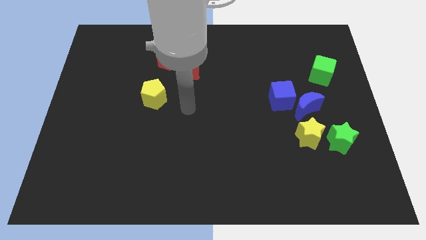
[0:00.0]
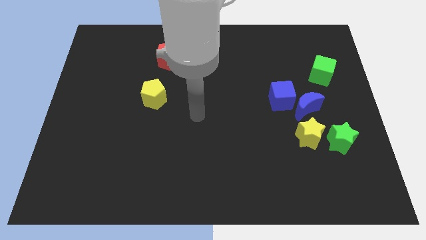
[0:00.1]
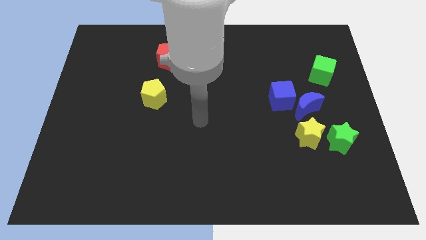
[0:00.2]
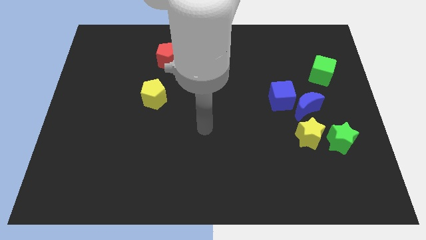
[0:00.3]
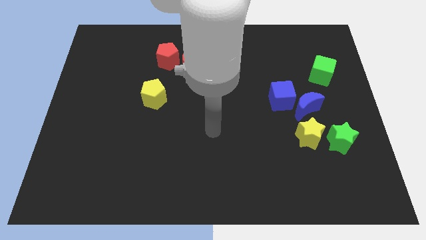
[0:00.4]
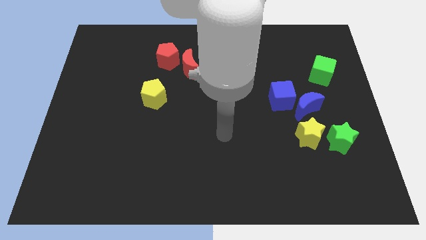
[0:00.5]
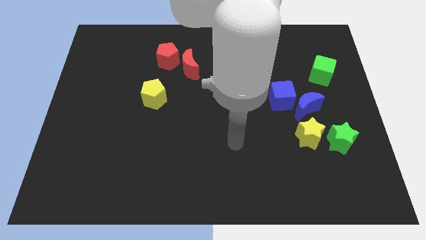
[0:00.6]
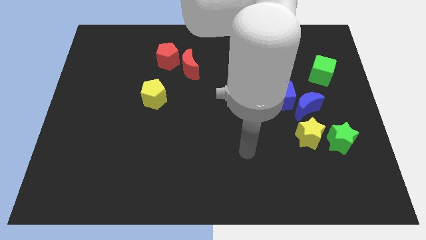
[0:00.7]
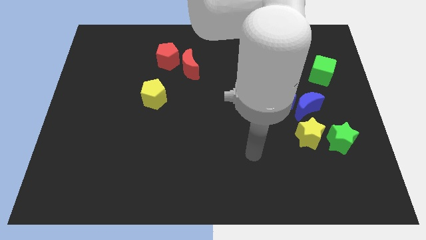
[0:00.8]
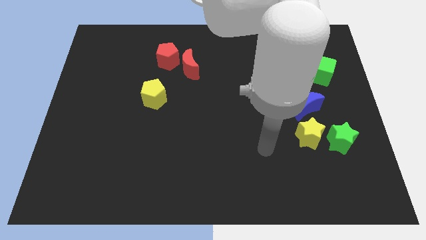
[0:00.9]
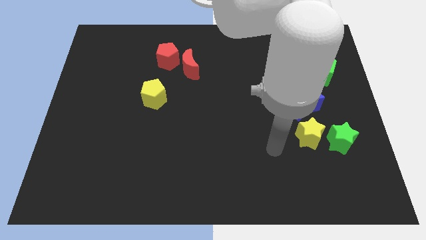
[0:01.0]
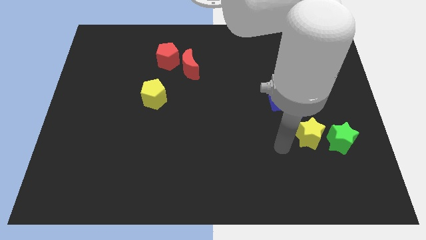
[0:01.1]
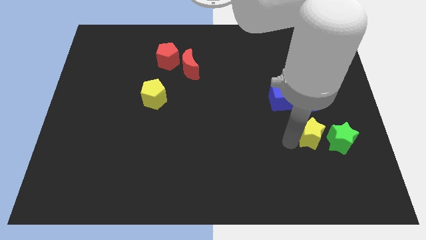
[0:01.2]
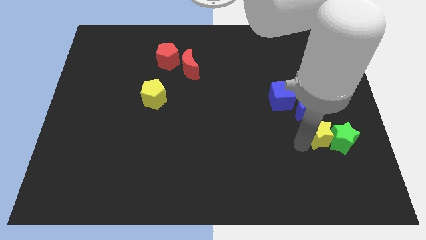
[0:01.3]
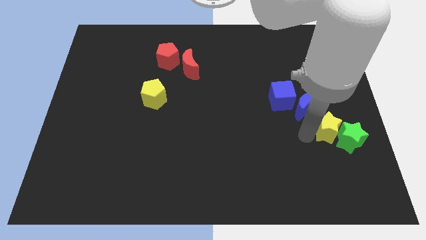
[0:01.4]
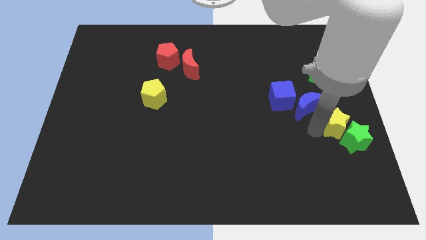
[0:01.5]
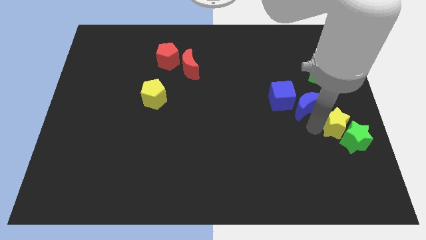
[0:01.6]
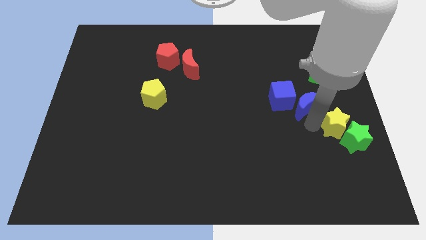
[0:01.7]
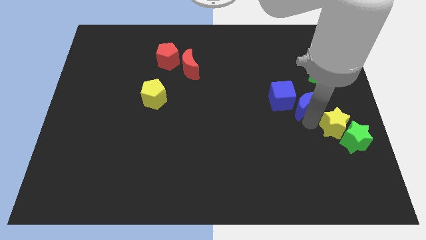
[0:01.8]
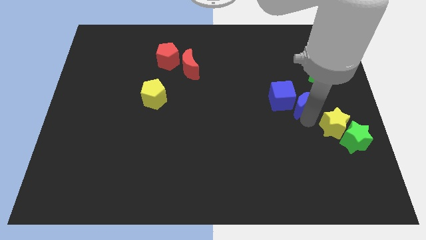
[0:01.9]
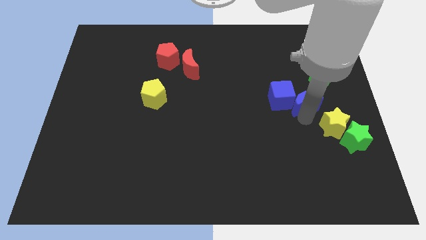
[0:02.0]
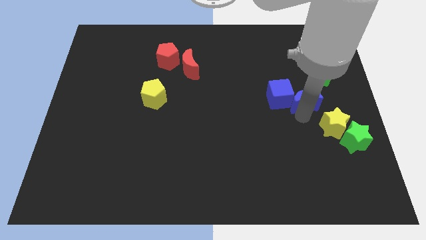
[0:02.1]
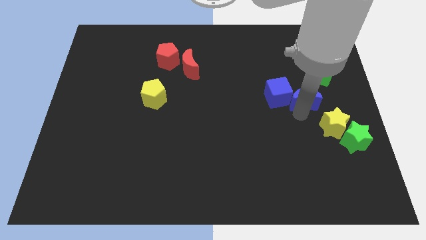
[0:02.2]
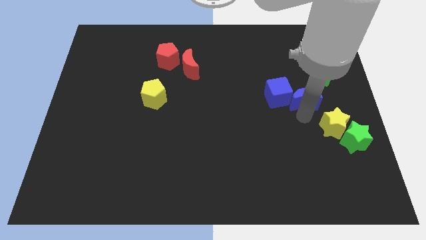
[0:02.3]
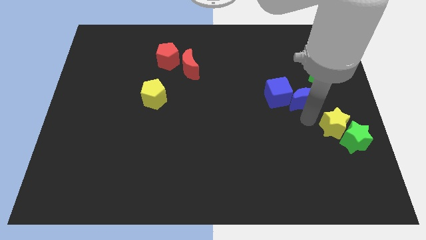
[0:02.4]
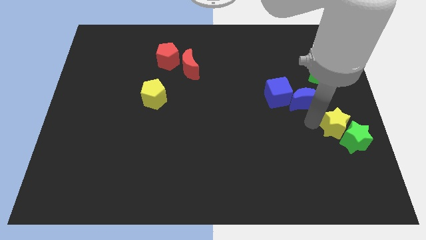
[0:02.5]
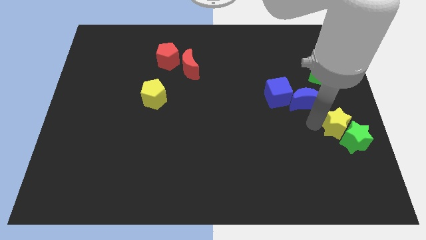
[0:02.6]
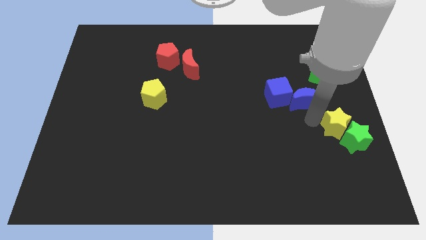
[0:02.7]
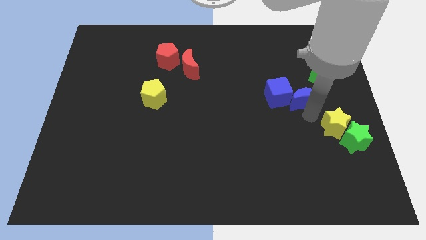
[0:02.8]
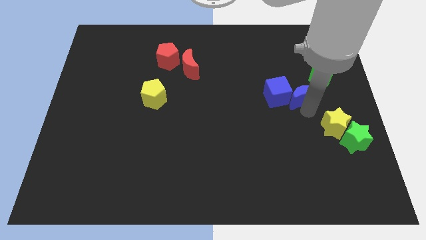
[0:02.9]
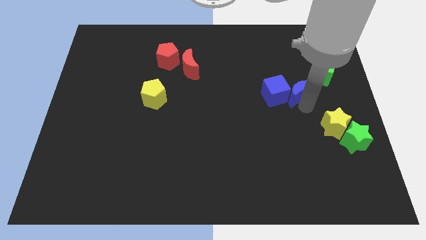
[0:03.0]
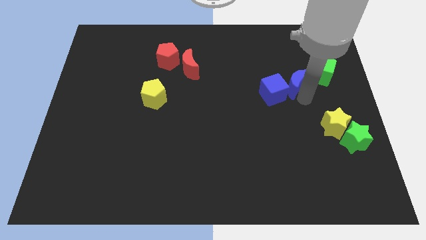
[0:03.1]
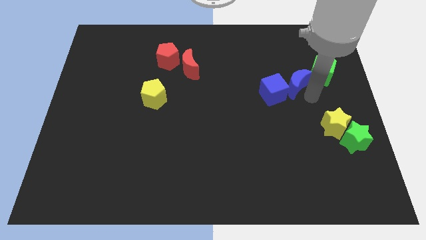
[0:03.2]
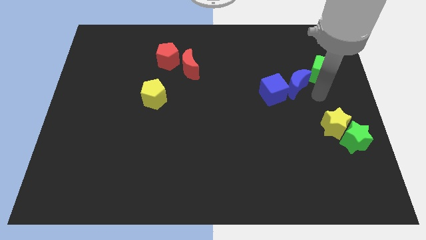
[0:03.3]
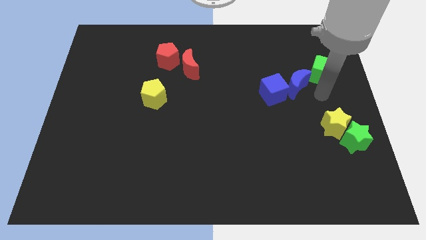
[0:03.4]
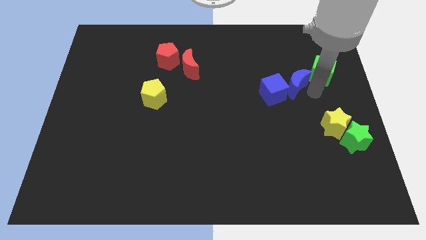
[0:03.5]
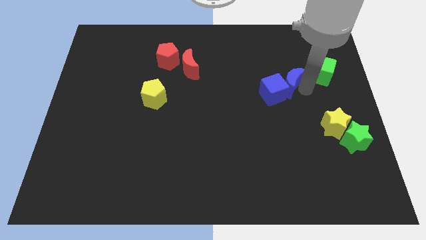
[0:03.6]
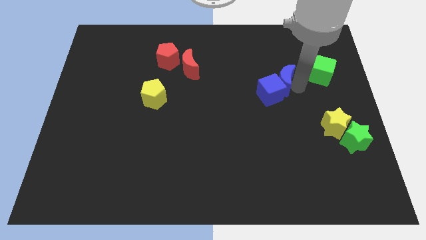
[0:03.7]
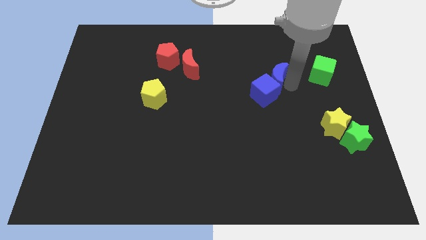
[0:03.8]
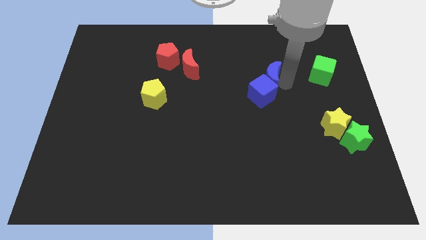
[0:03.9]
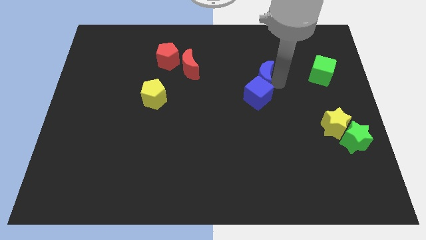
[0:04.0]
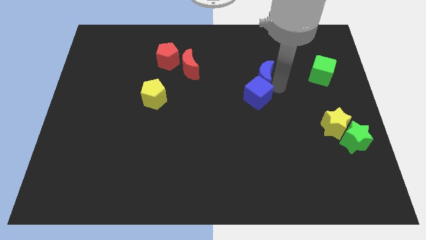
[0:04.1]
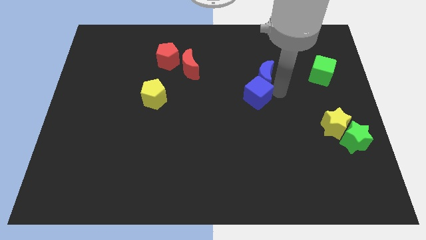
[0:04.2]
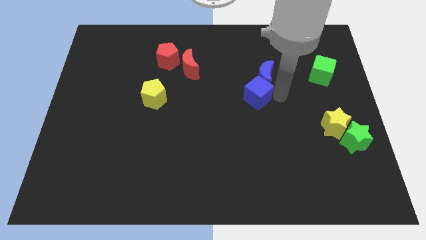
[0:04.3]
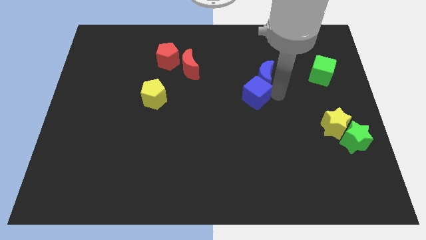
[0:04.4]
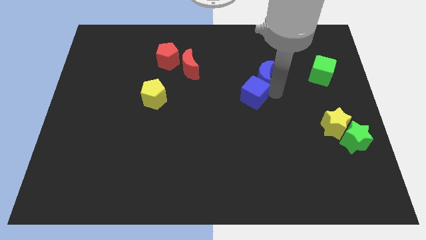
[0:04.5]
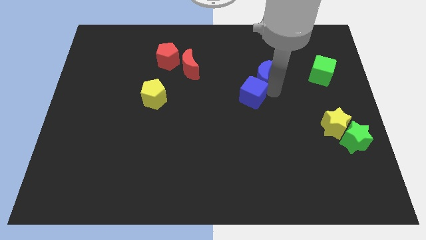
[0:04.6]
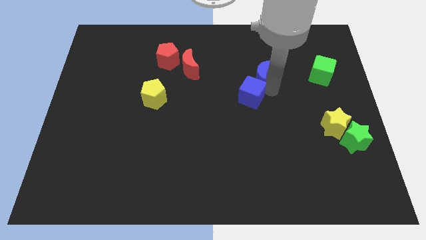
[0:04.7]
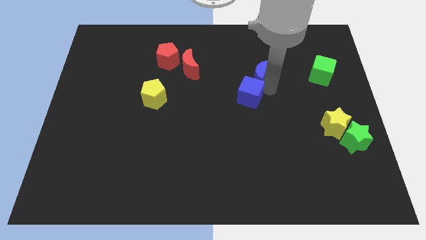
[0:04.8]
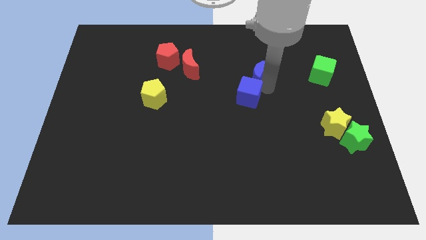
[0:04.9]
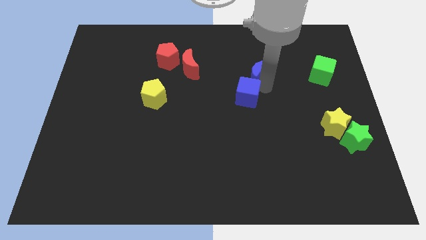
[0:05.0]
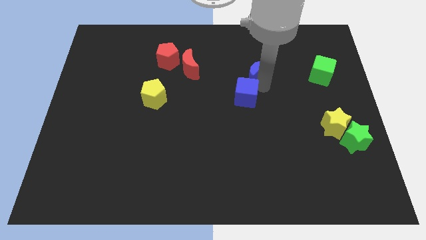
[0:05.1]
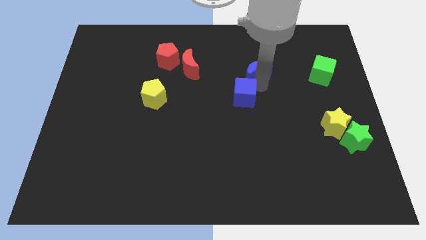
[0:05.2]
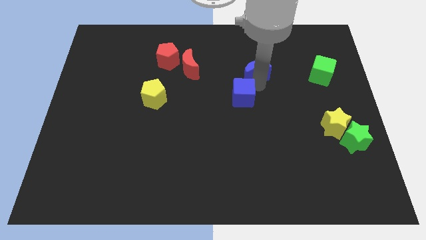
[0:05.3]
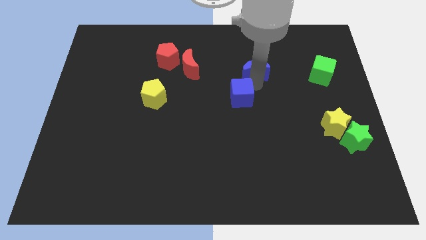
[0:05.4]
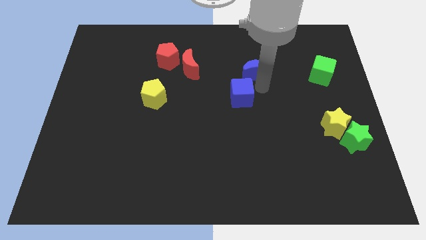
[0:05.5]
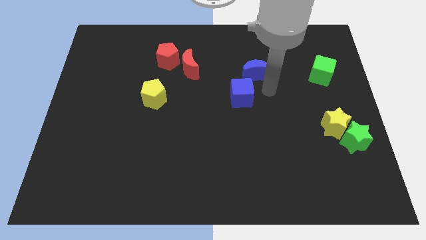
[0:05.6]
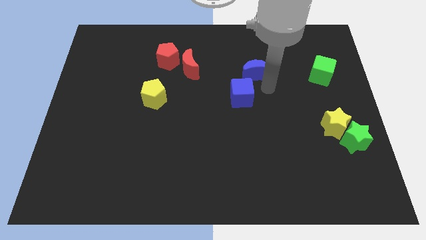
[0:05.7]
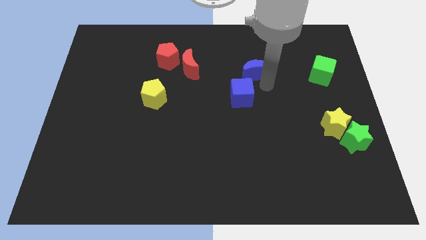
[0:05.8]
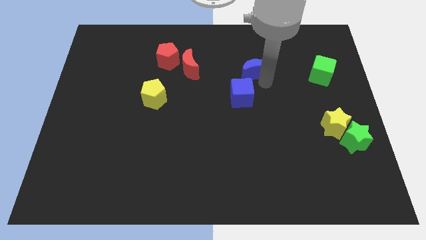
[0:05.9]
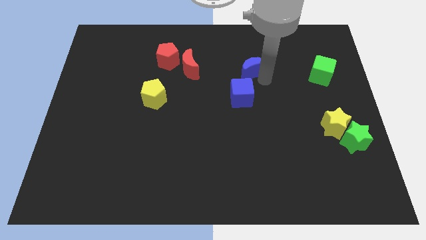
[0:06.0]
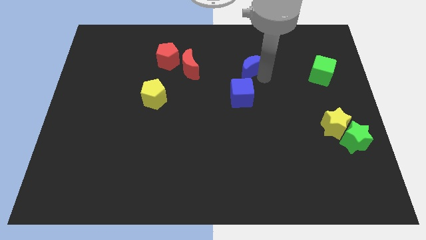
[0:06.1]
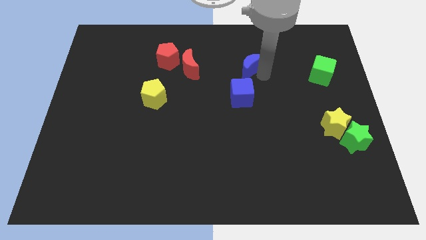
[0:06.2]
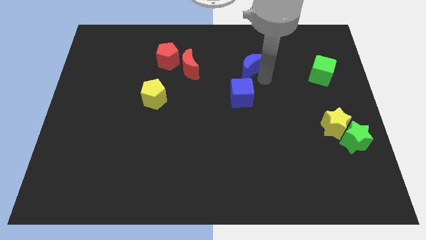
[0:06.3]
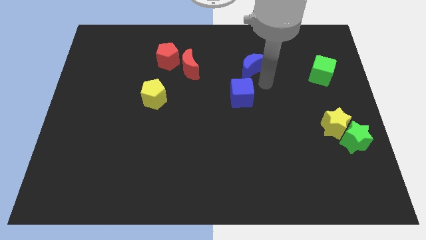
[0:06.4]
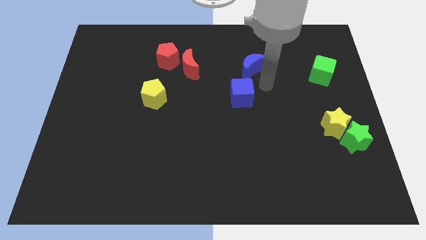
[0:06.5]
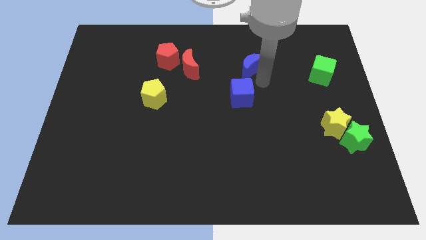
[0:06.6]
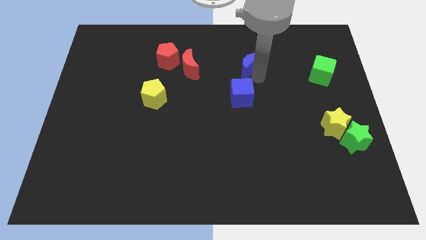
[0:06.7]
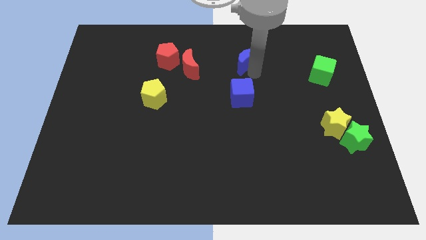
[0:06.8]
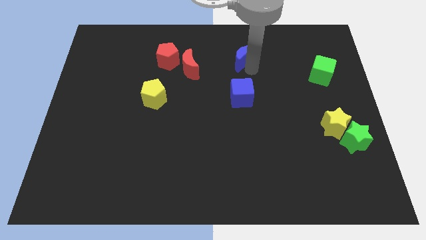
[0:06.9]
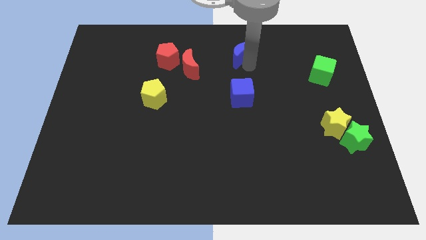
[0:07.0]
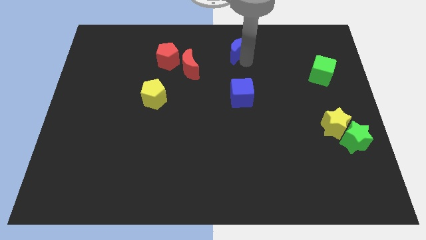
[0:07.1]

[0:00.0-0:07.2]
move the blue moon to the top side
